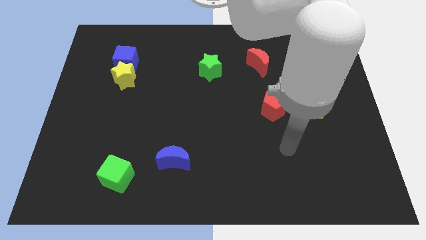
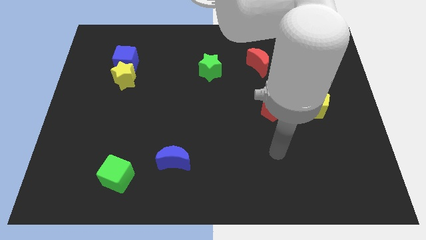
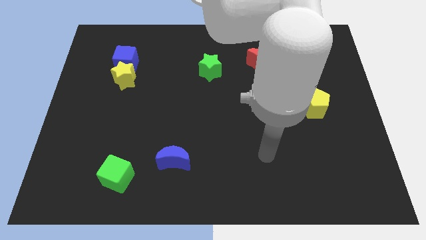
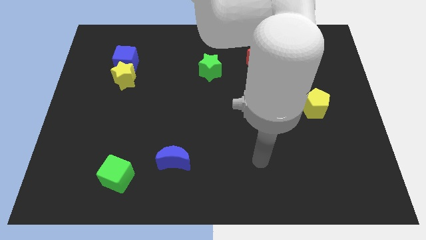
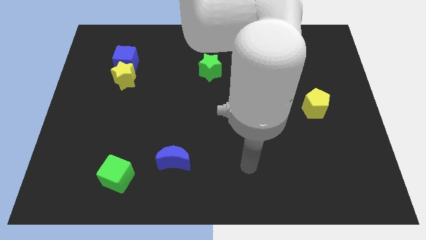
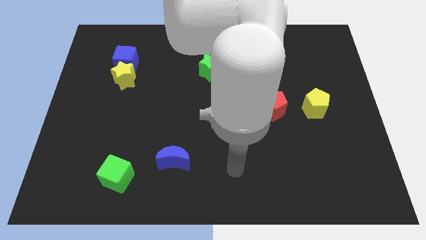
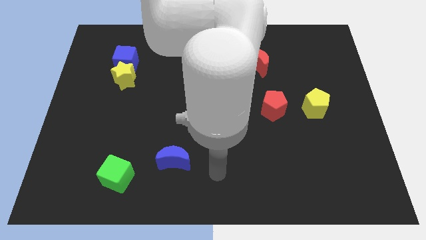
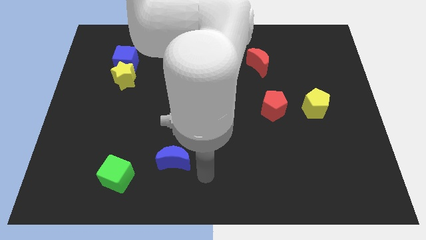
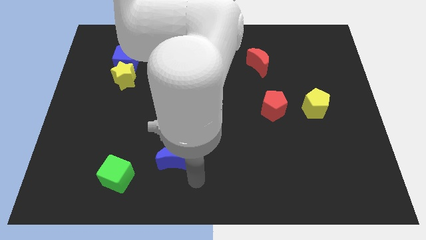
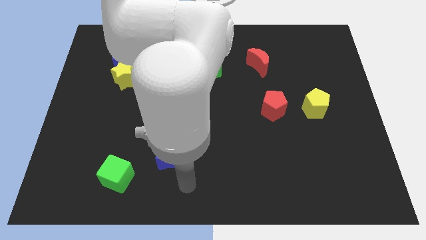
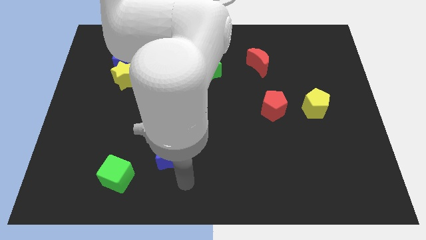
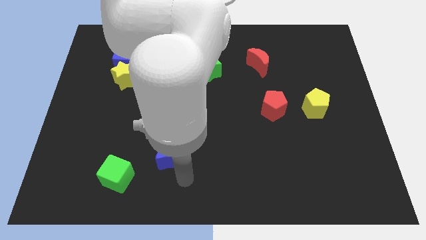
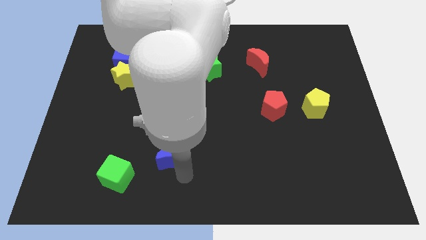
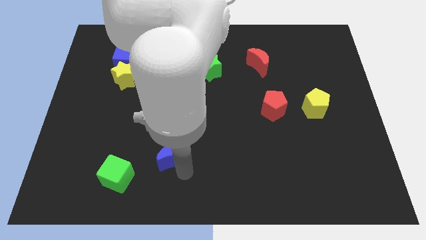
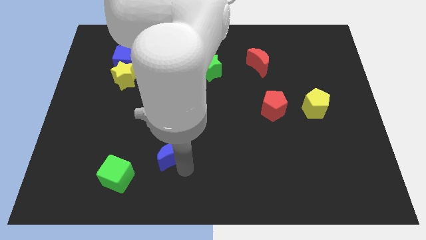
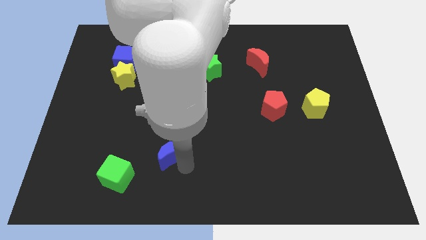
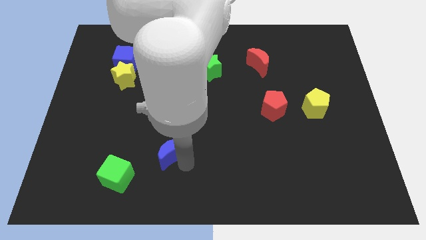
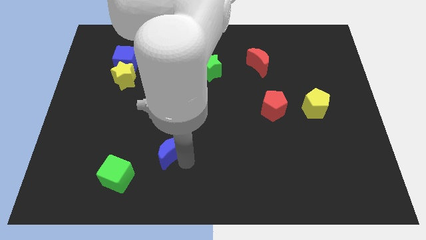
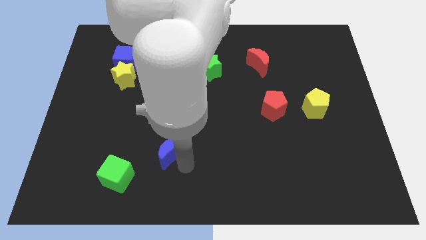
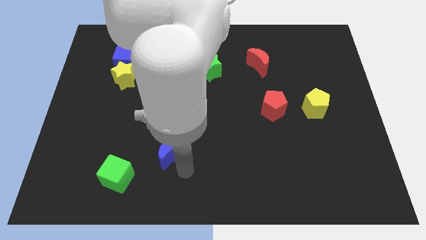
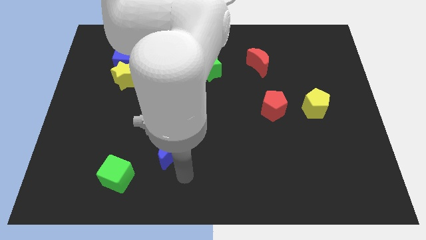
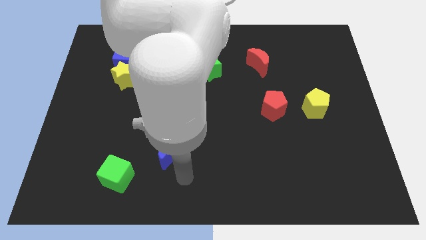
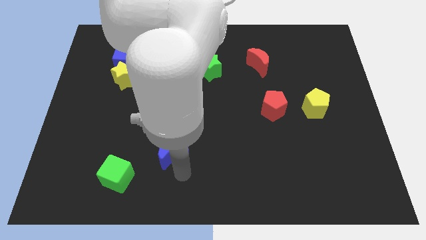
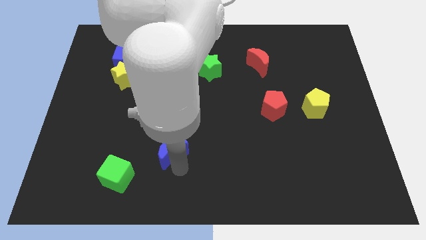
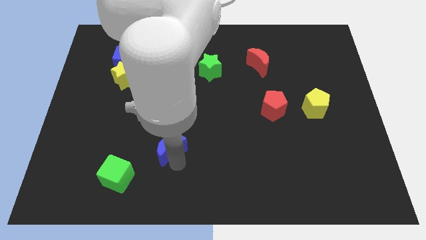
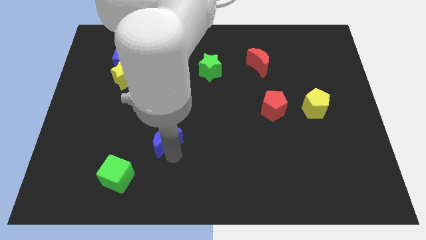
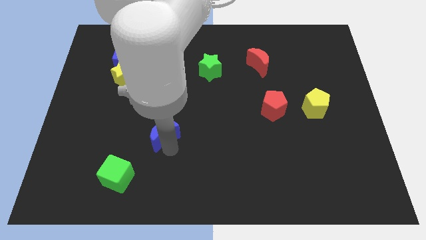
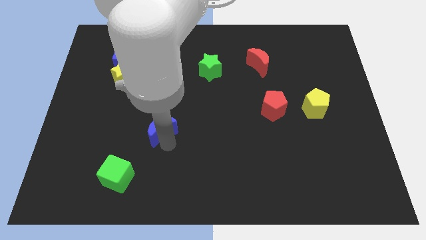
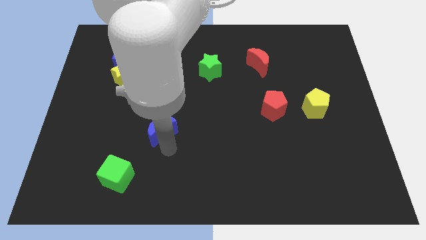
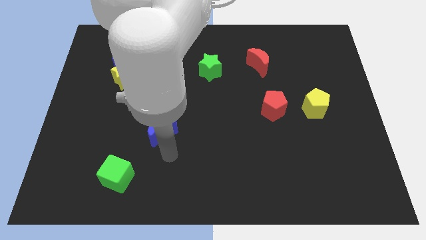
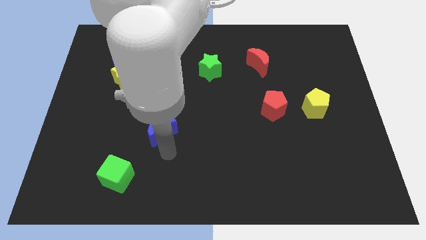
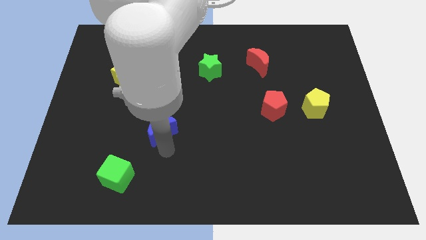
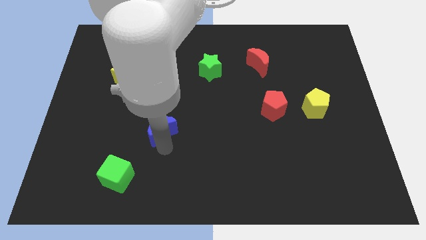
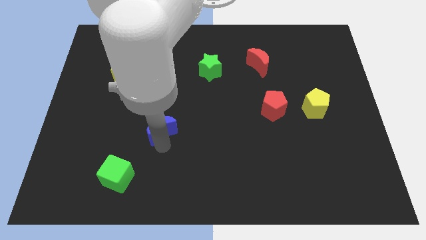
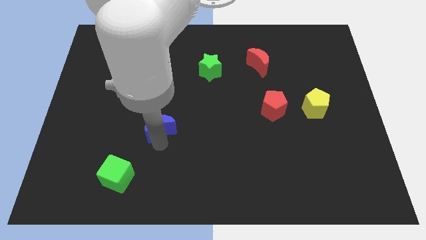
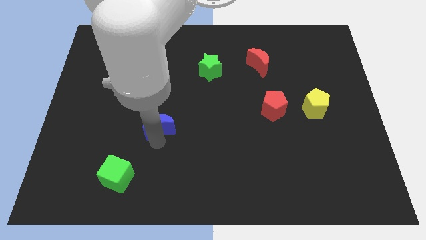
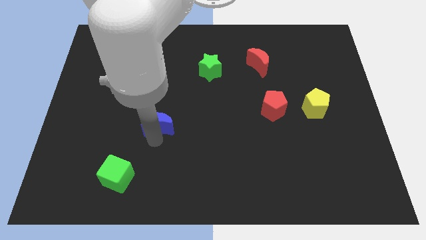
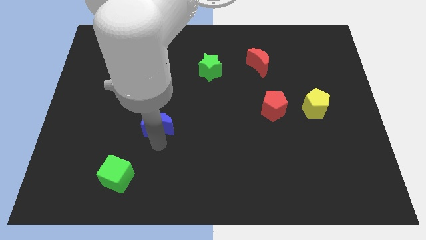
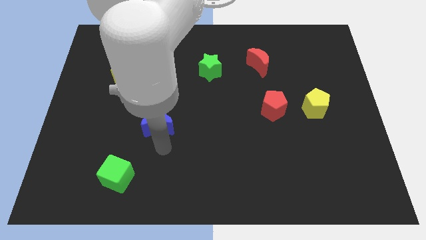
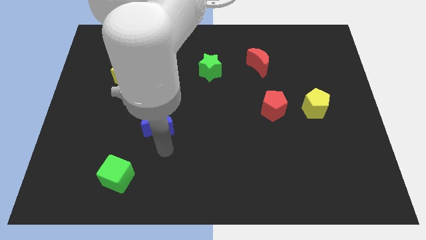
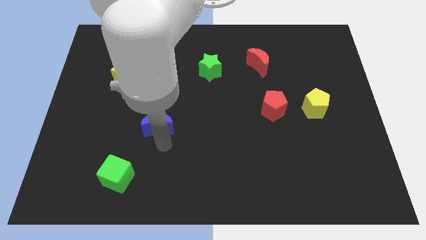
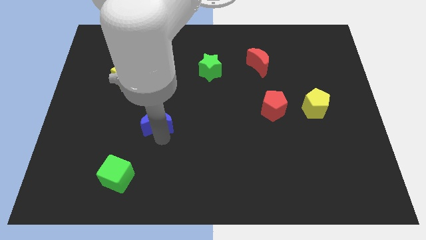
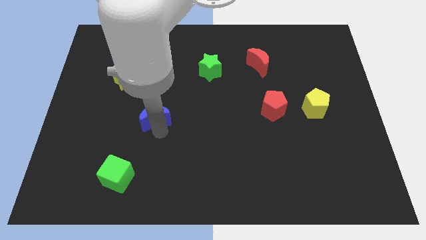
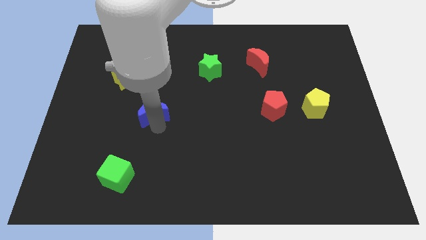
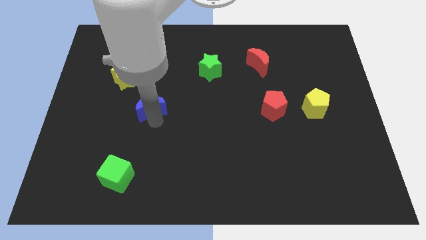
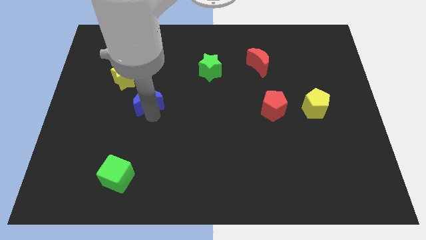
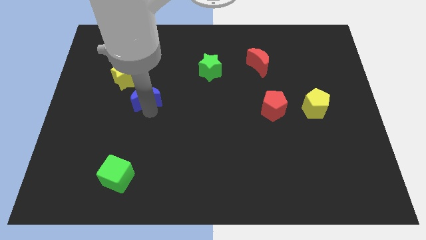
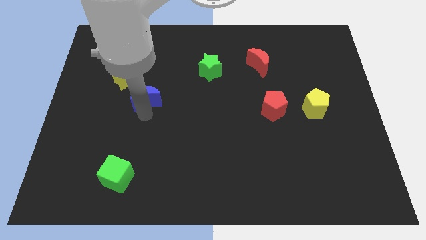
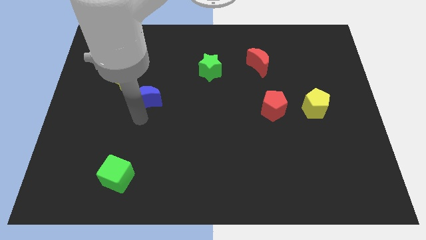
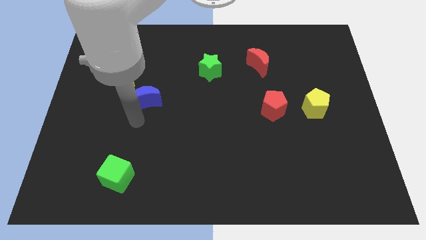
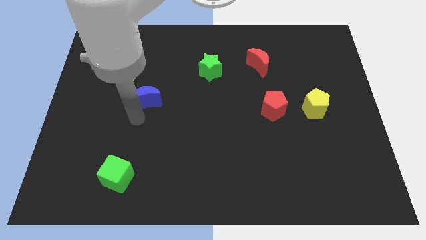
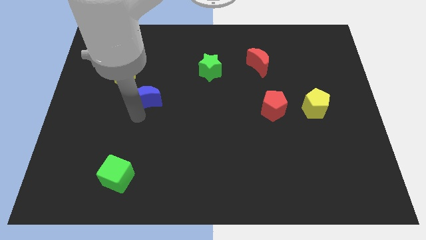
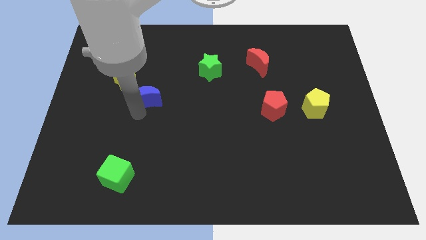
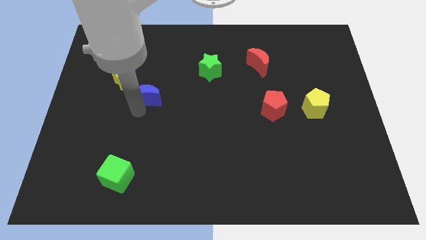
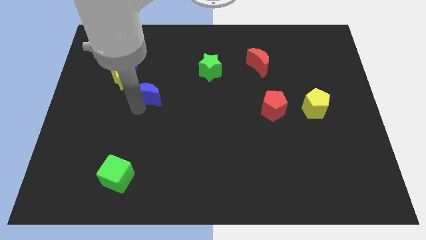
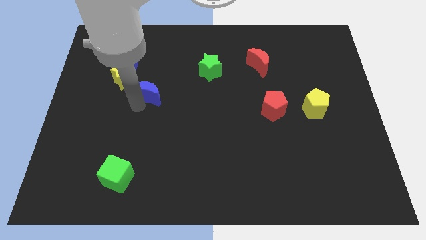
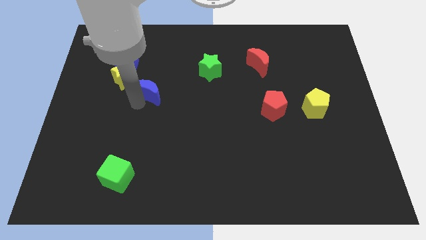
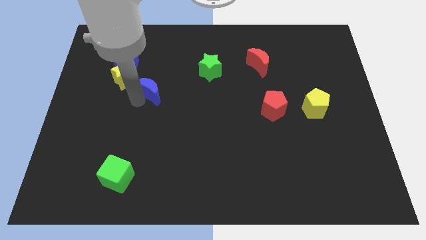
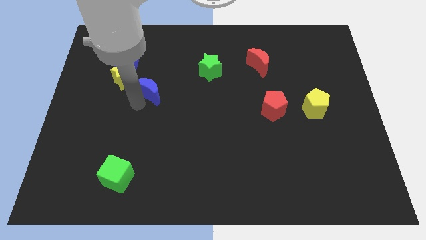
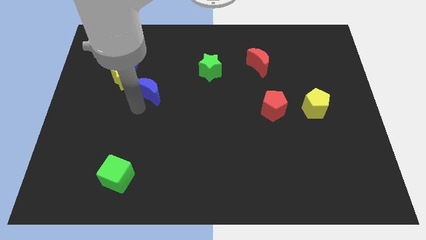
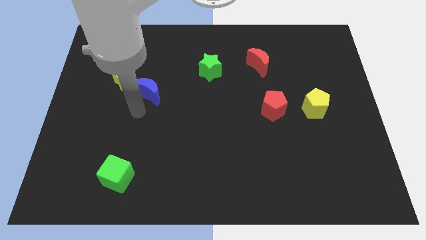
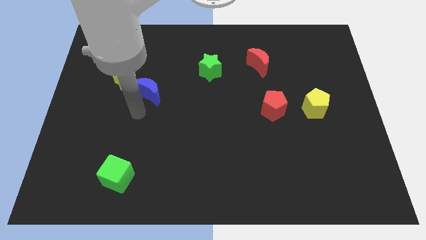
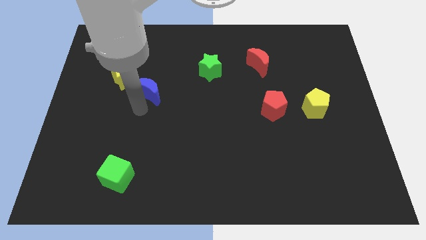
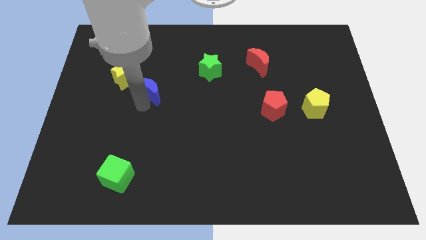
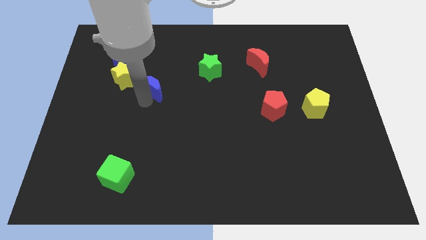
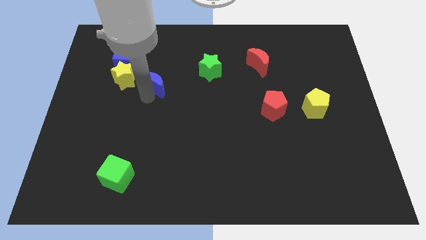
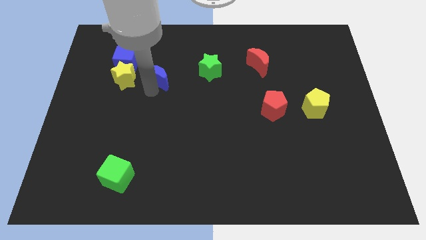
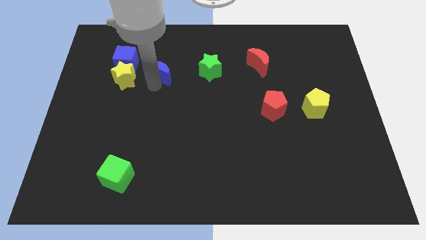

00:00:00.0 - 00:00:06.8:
move the blue moon to the right side of the blue cube
